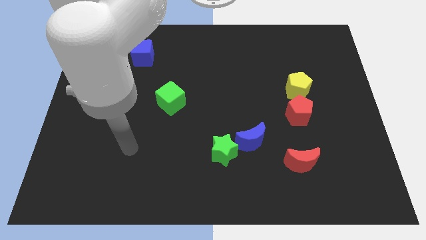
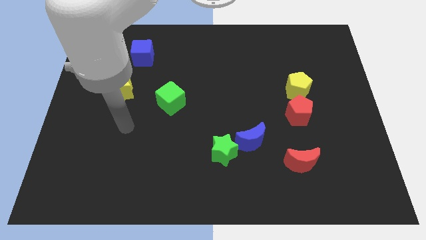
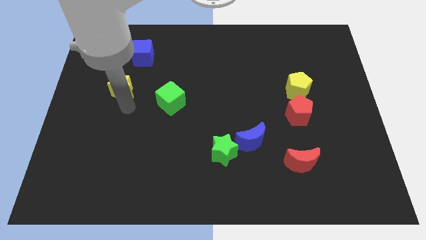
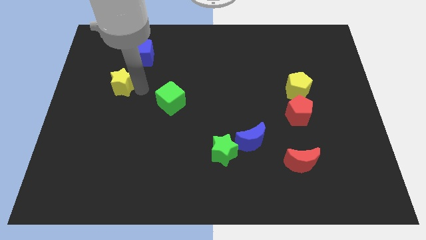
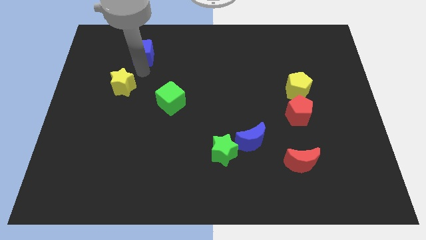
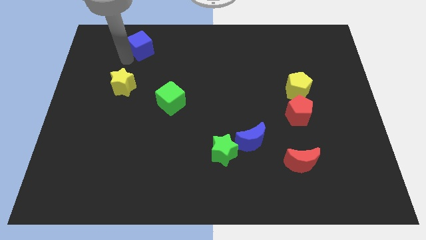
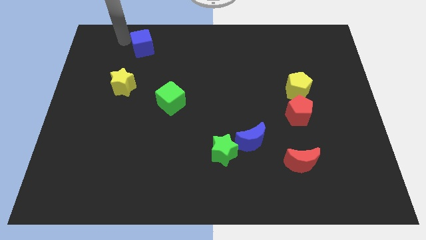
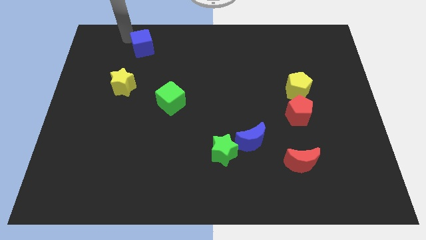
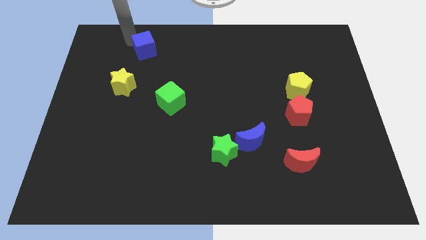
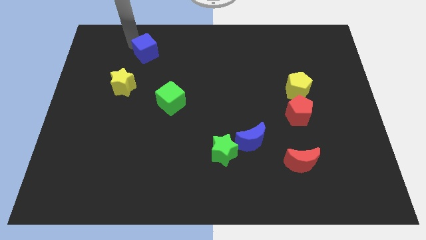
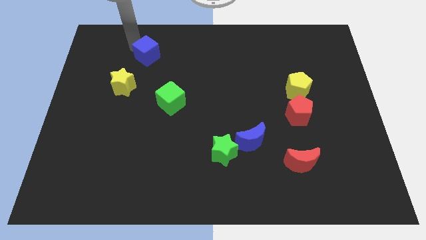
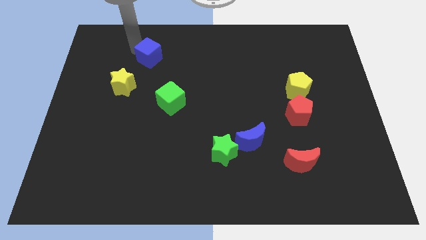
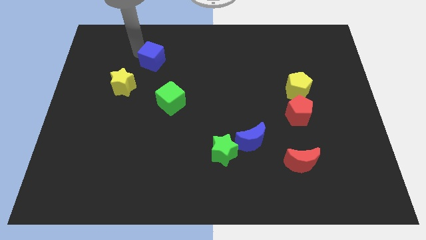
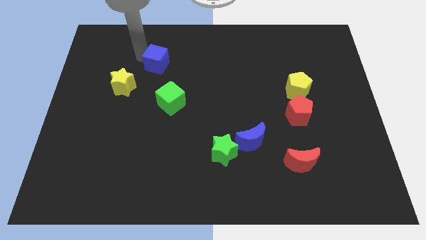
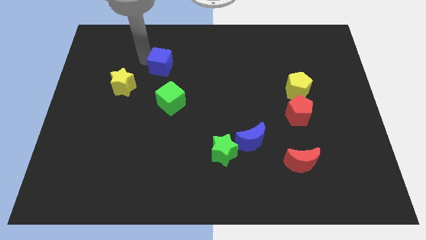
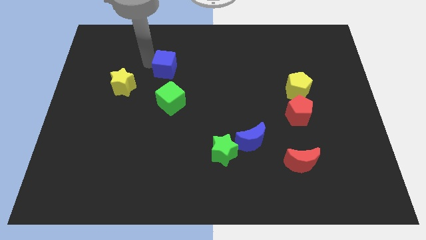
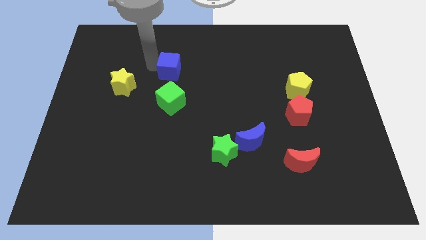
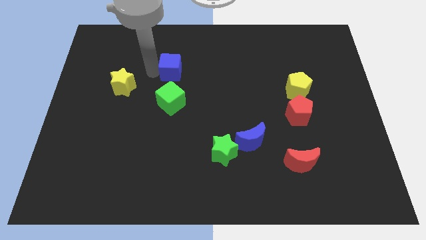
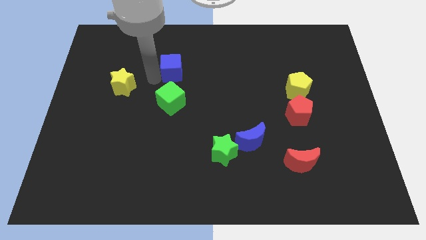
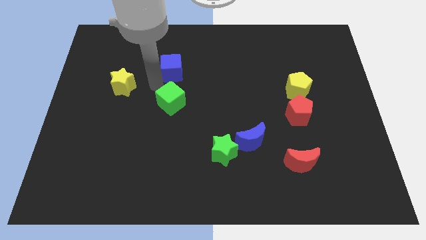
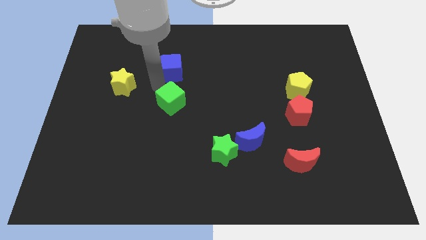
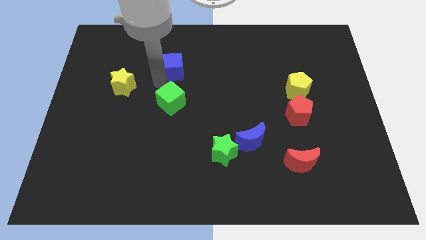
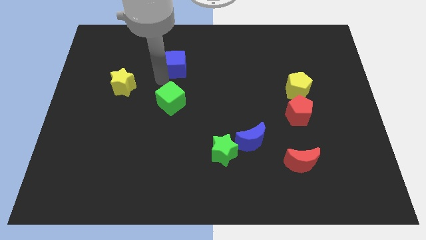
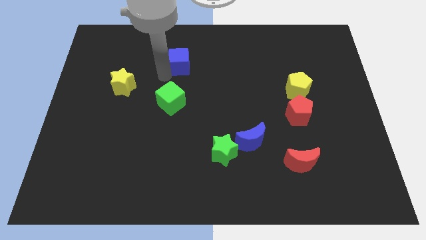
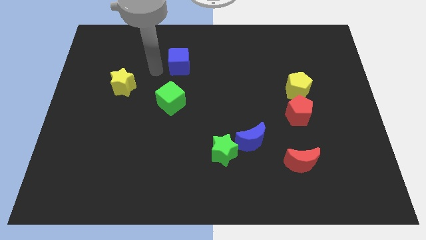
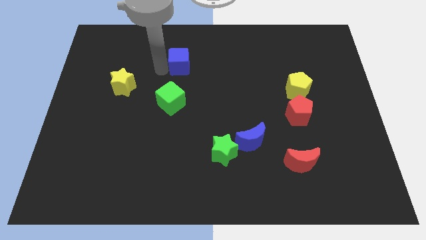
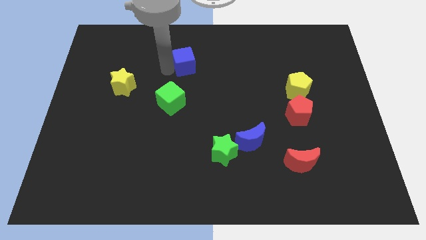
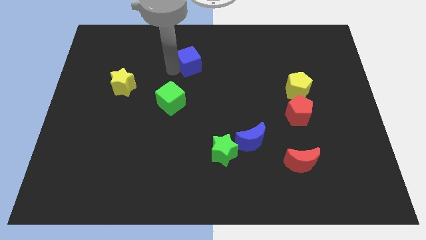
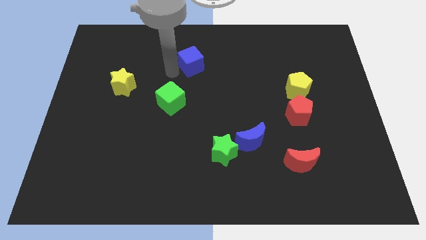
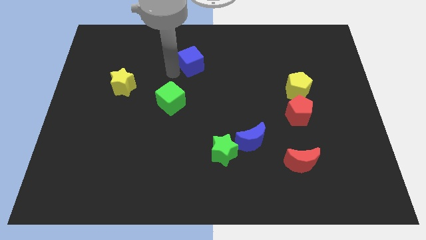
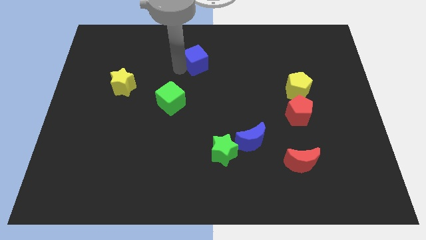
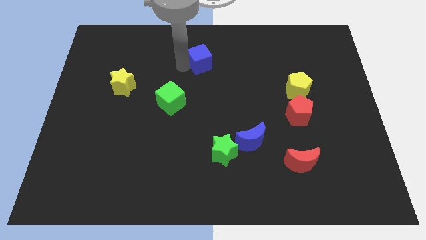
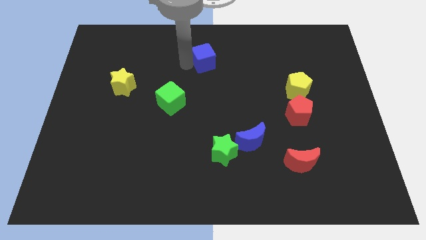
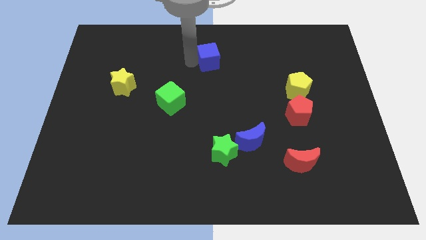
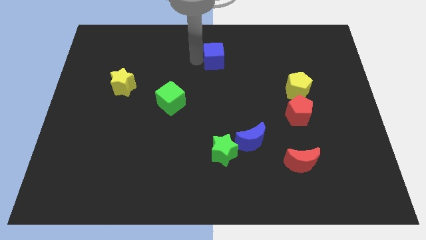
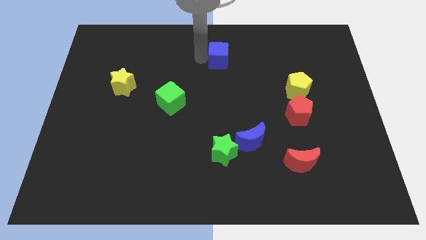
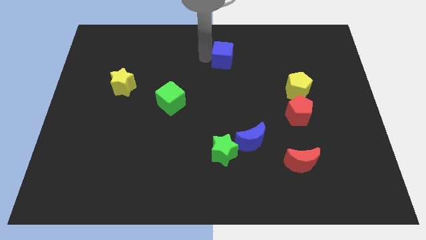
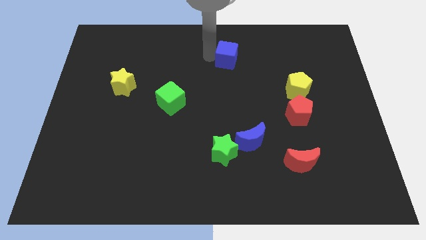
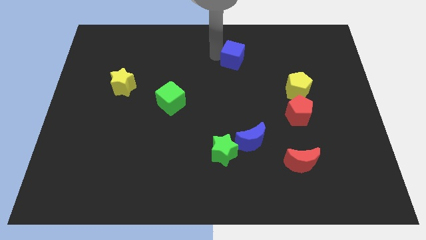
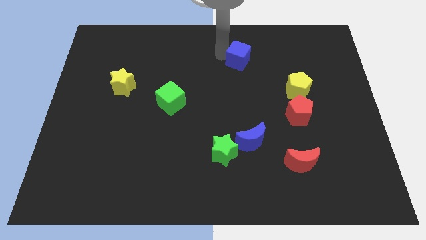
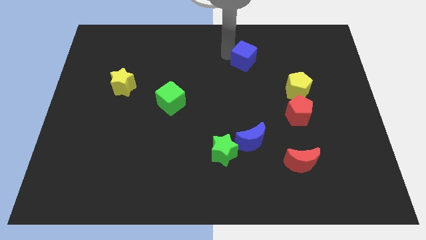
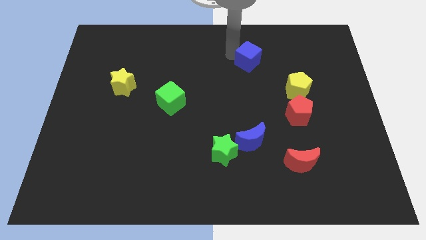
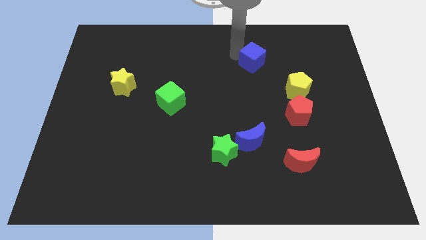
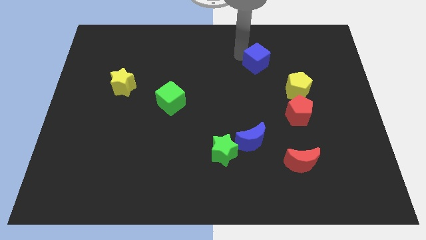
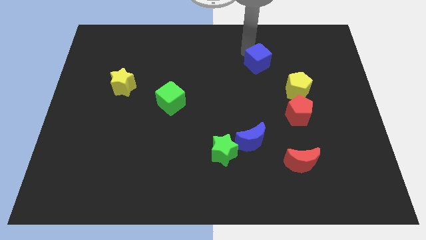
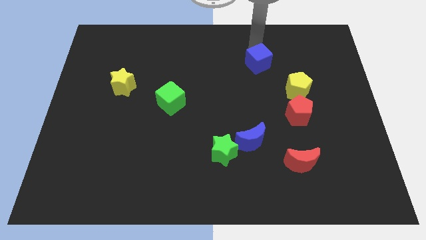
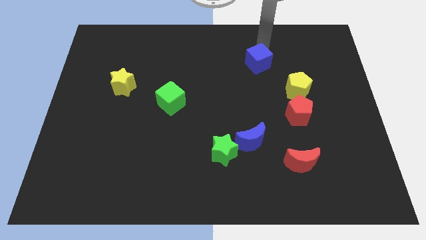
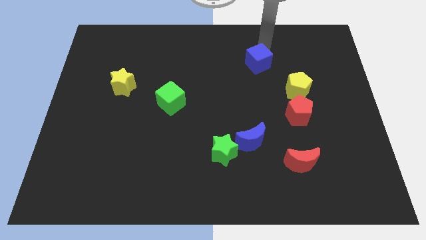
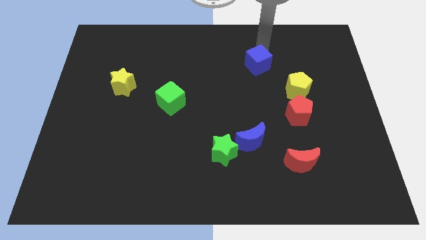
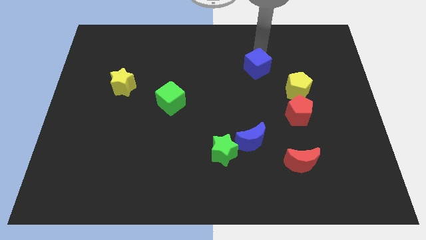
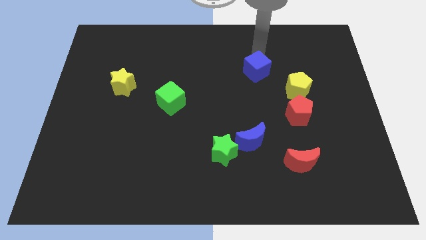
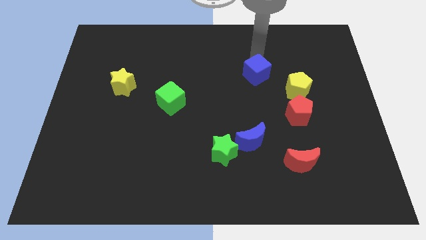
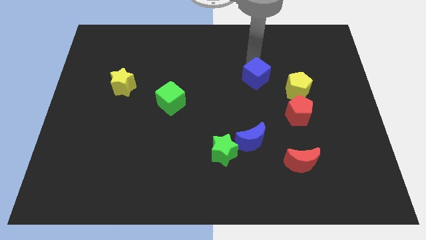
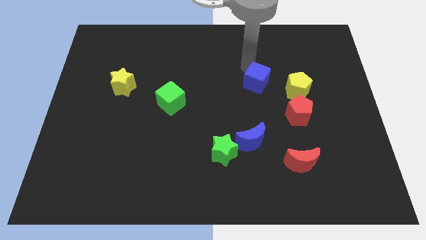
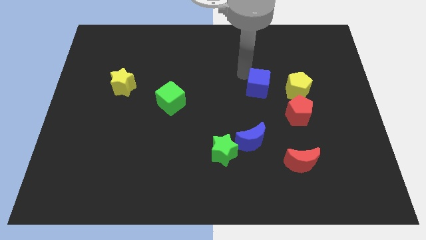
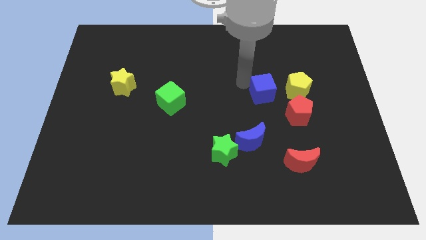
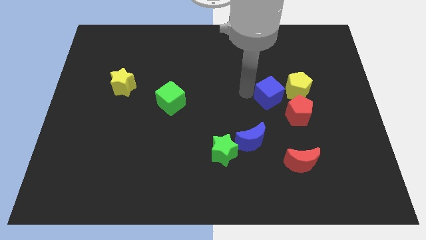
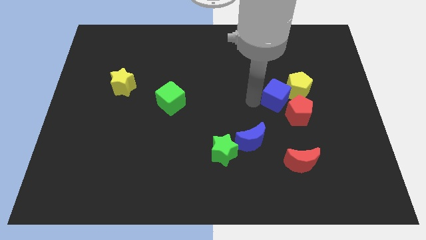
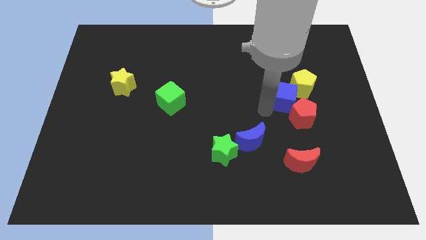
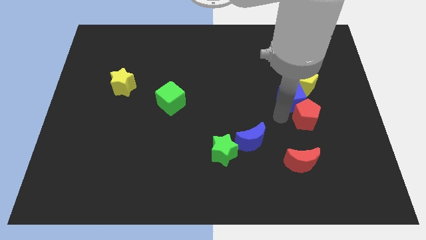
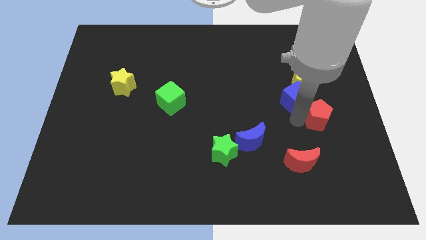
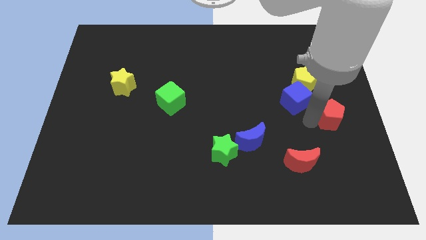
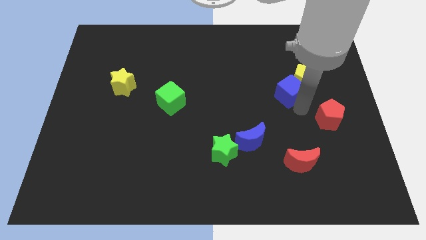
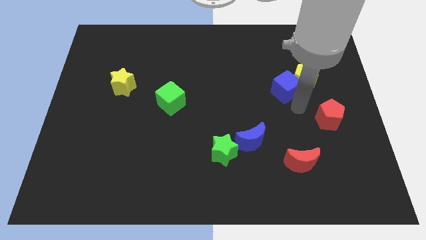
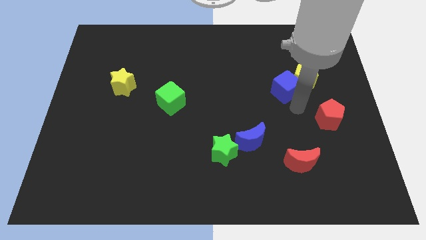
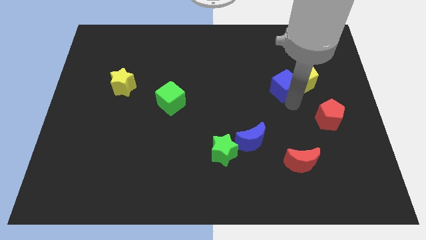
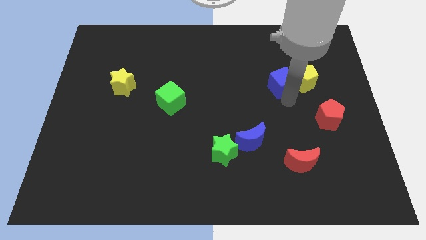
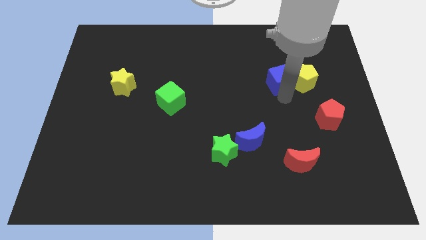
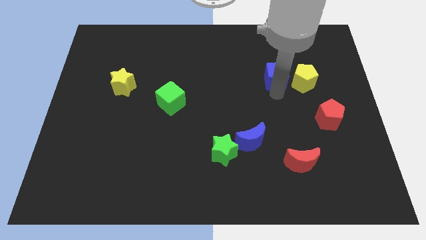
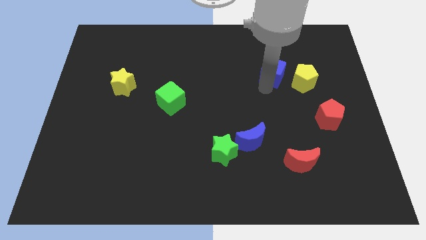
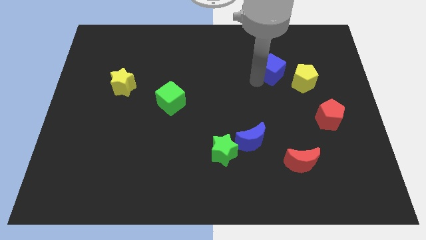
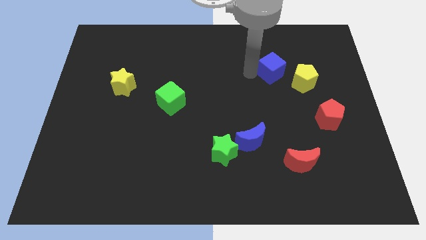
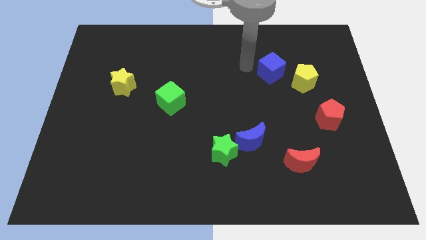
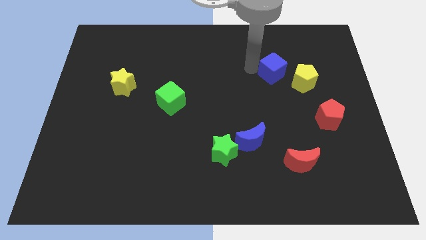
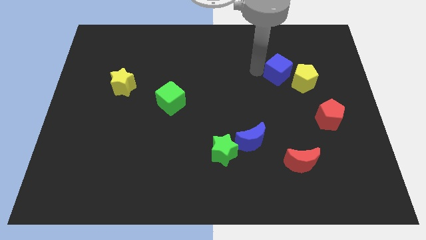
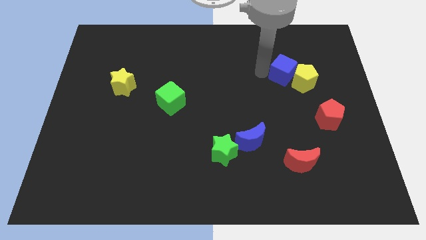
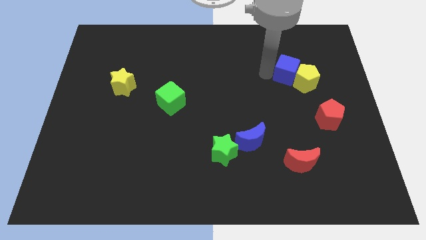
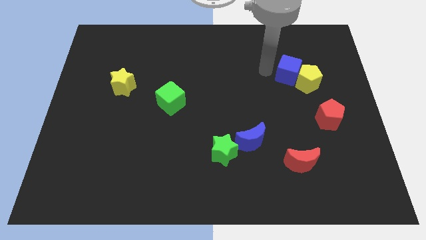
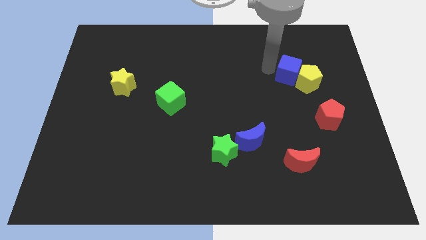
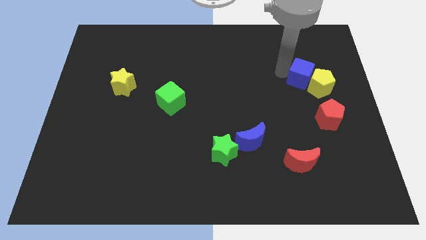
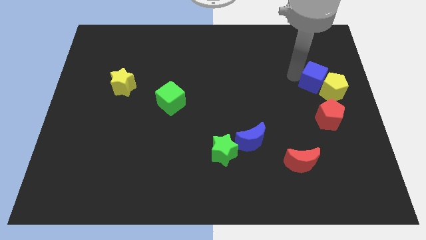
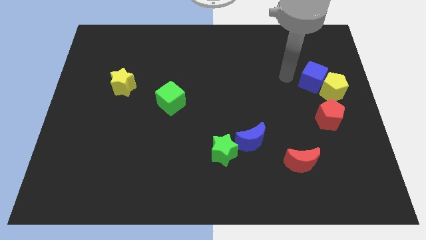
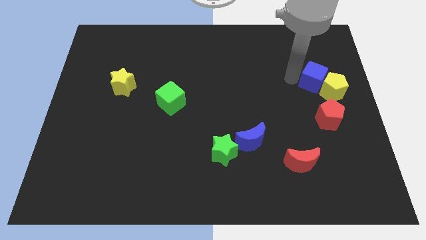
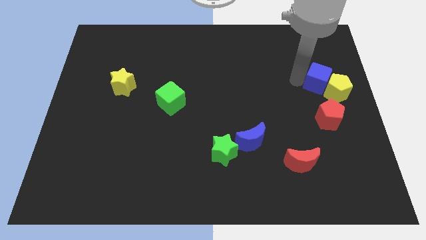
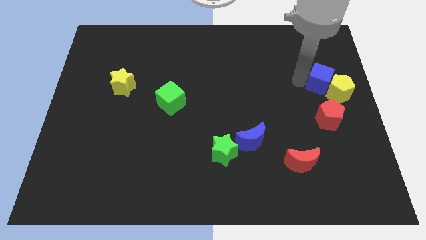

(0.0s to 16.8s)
slide the blue cube to the right side
